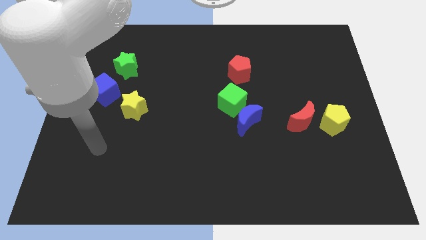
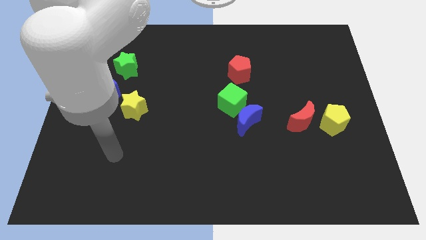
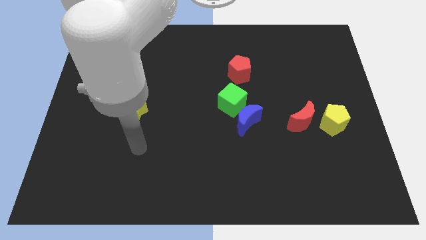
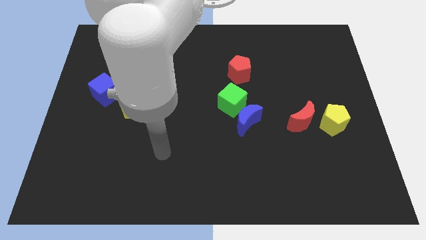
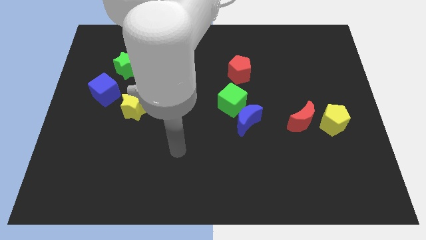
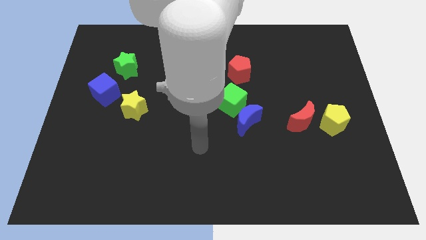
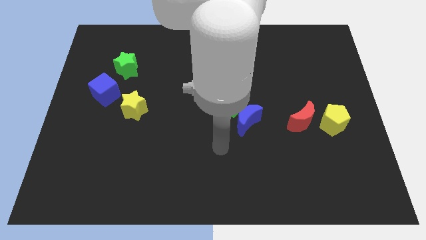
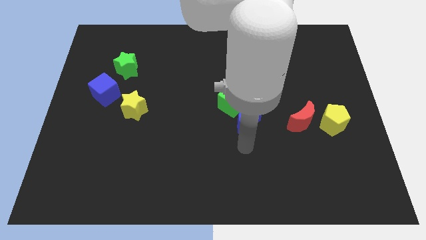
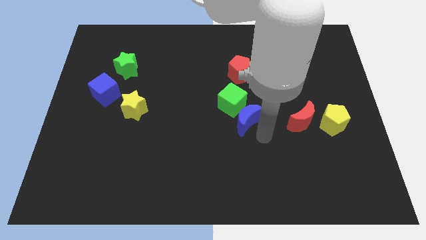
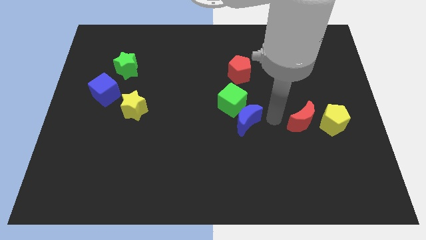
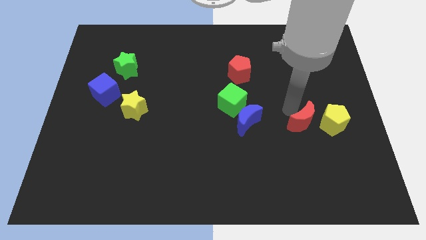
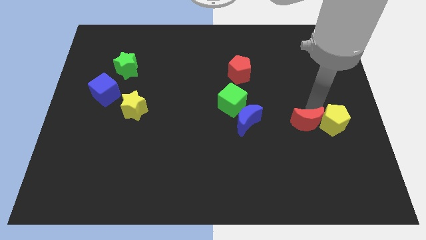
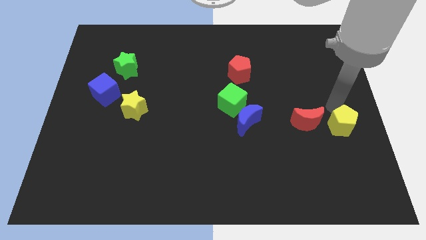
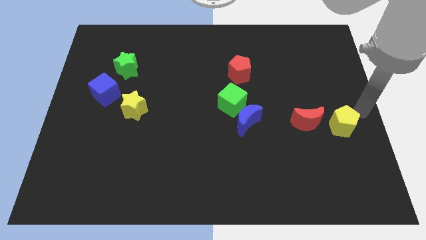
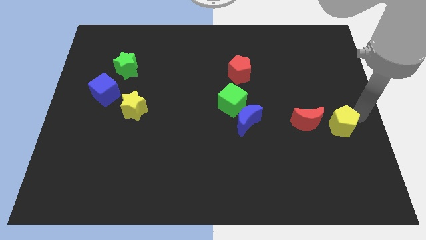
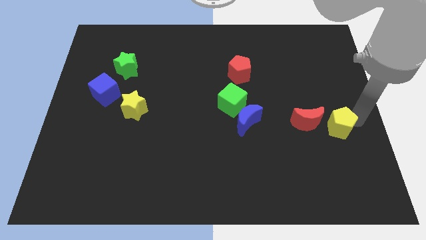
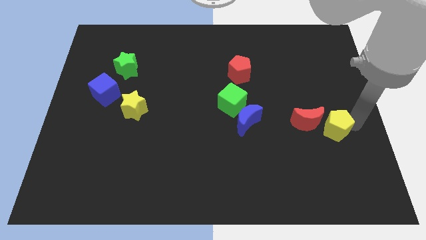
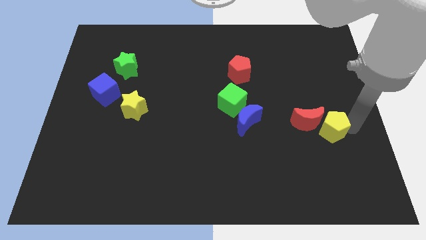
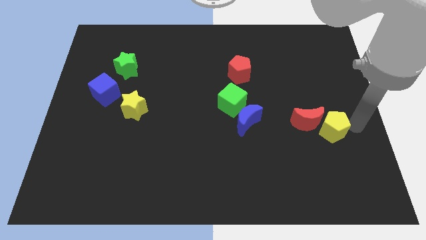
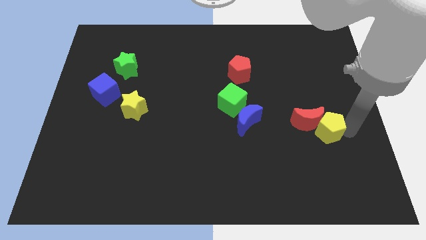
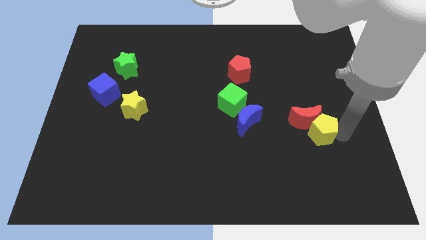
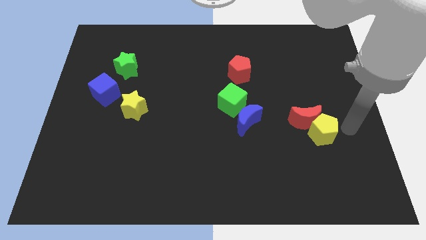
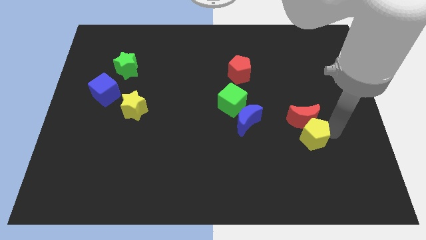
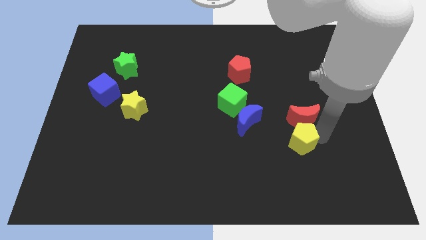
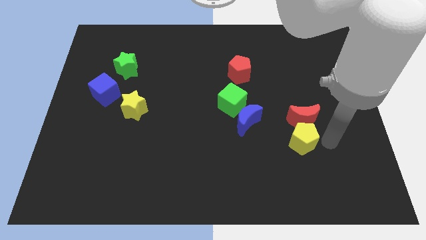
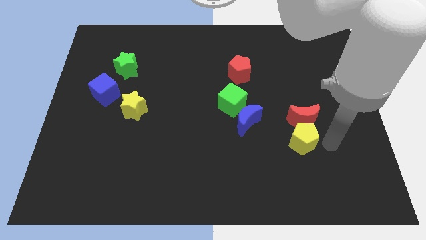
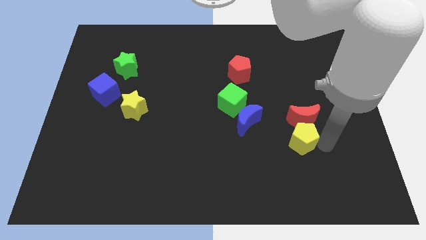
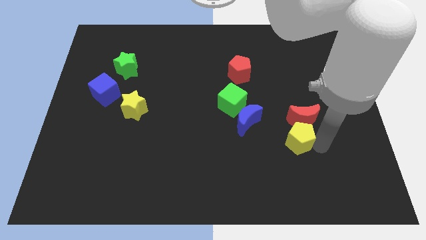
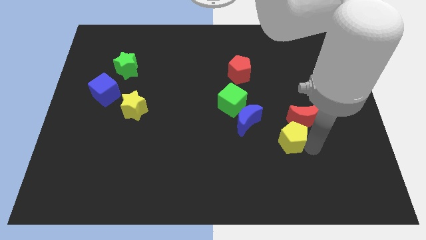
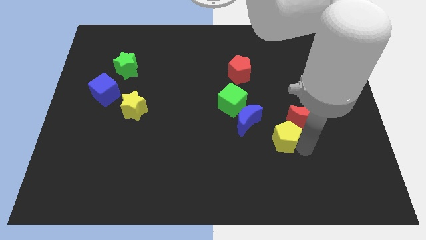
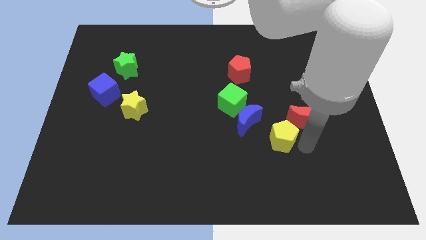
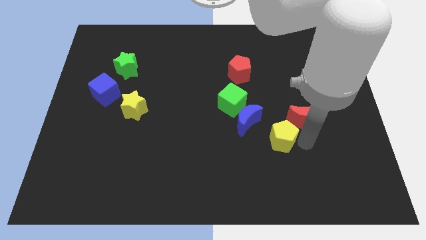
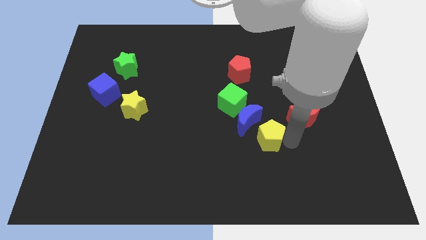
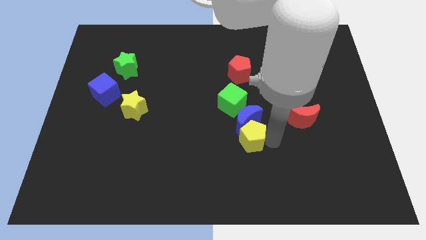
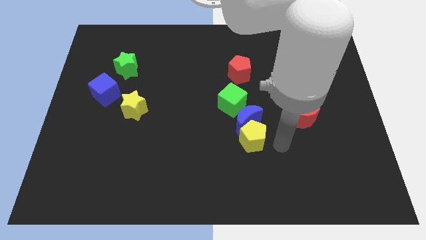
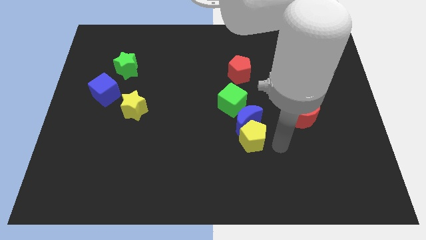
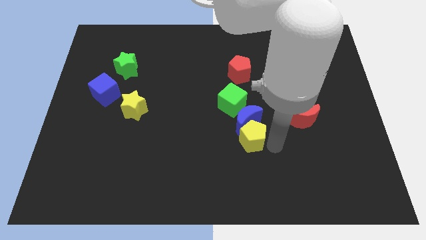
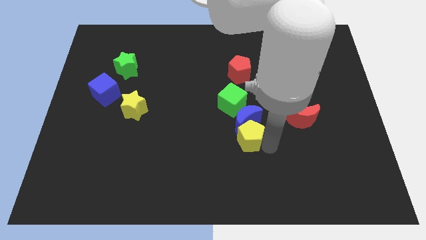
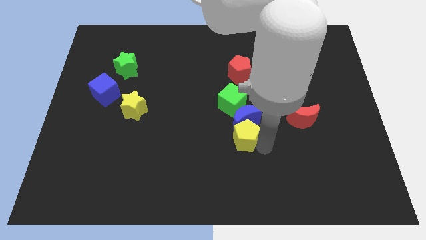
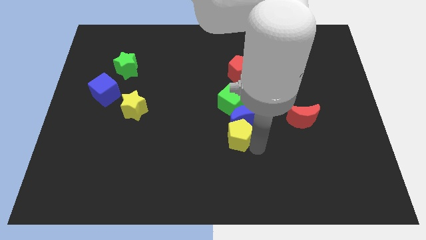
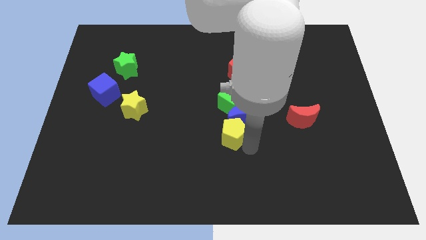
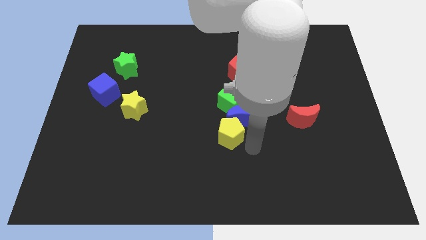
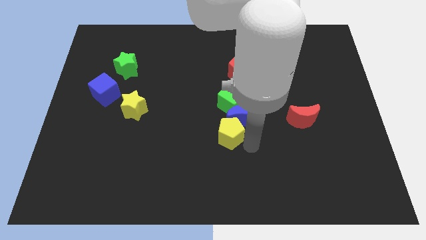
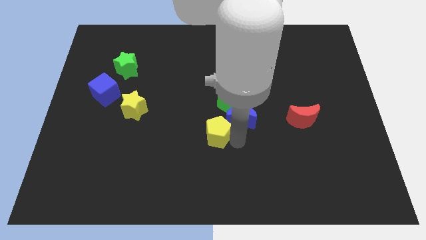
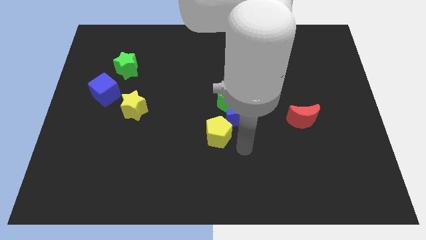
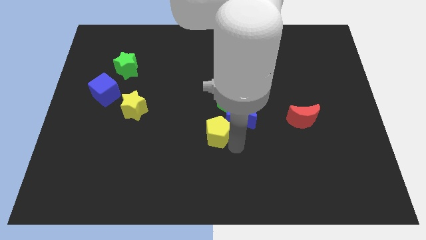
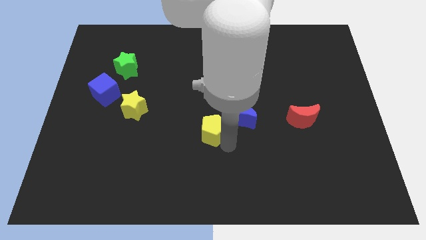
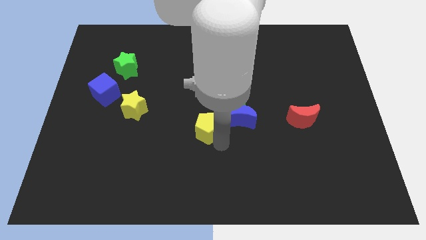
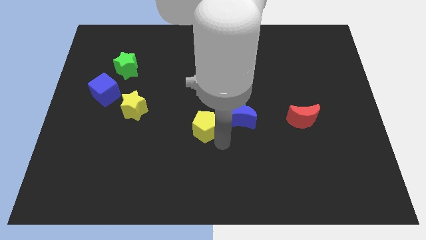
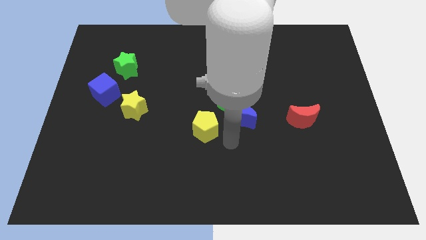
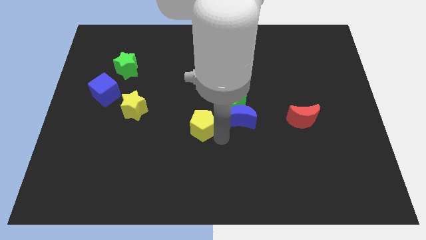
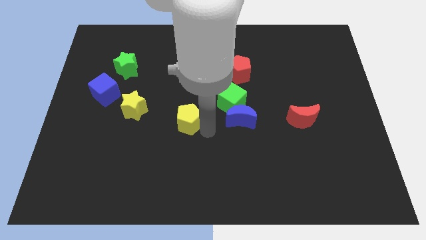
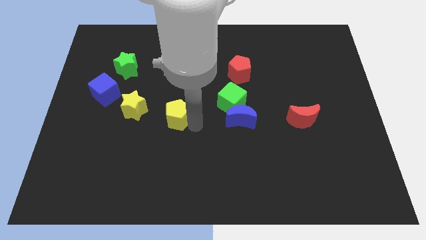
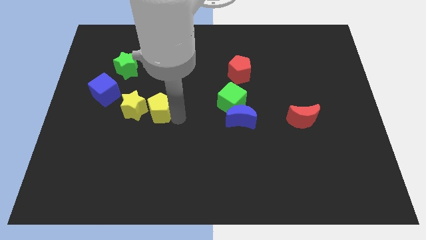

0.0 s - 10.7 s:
slide the yellow pentagon to the yellow star
